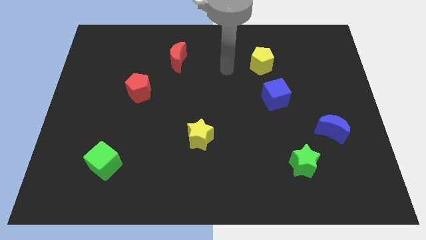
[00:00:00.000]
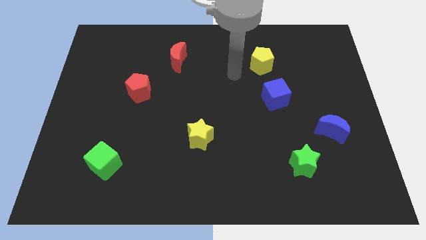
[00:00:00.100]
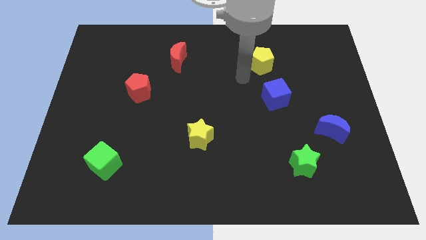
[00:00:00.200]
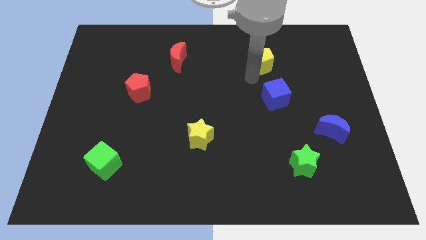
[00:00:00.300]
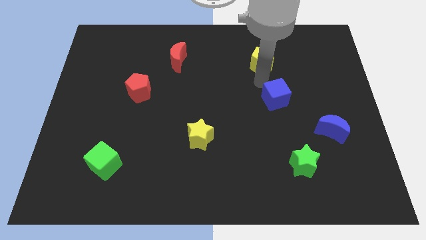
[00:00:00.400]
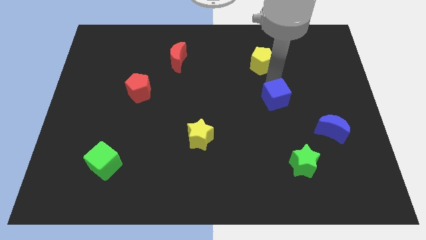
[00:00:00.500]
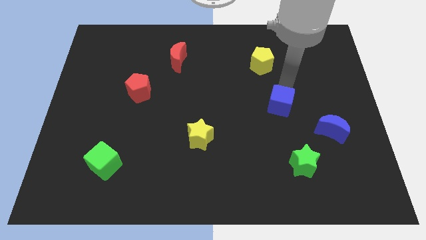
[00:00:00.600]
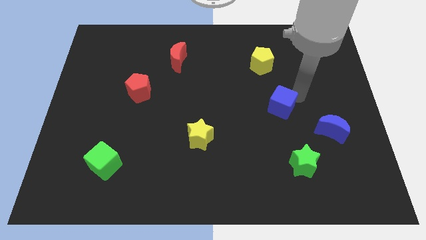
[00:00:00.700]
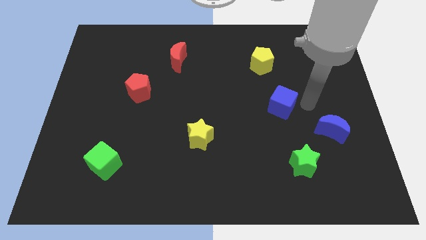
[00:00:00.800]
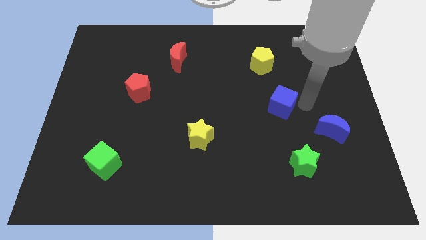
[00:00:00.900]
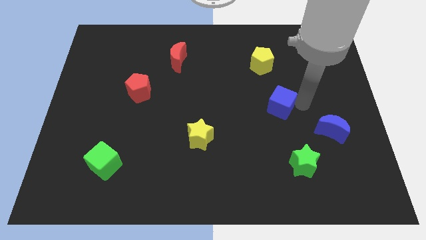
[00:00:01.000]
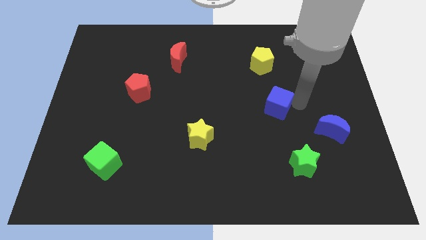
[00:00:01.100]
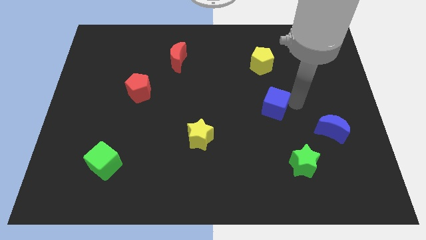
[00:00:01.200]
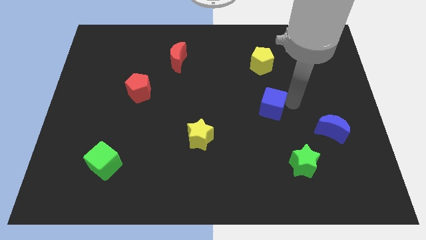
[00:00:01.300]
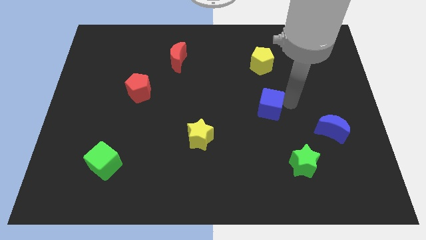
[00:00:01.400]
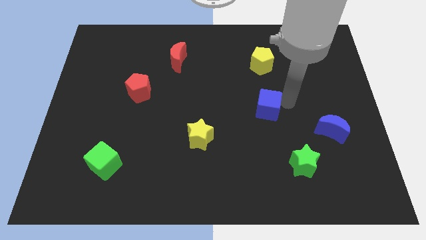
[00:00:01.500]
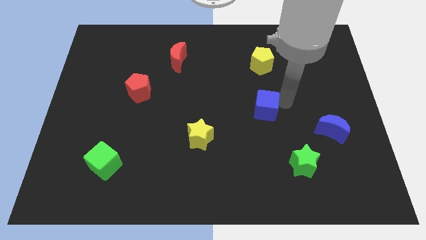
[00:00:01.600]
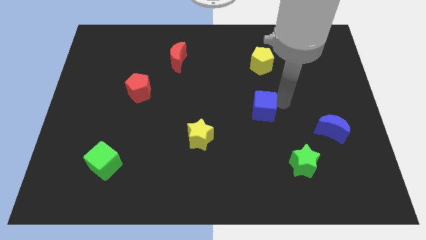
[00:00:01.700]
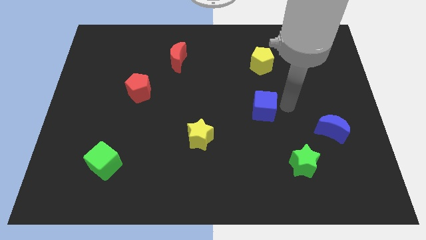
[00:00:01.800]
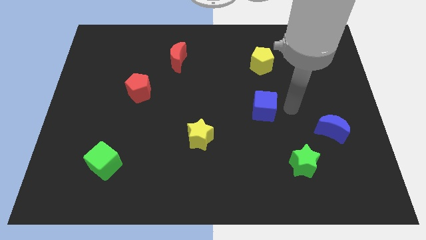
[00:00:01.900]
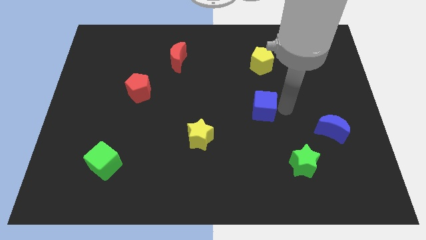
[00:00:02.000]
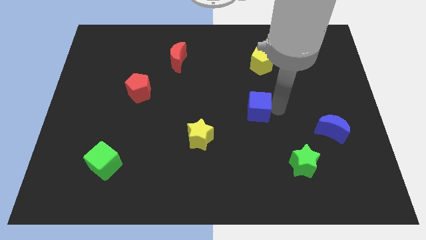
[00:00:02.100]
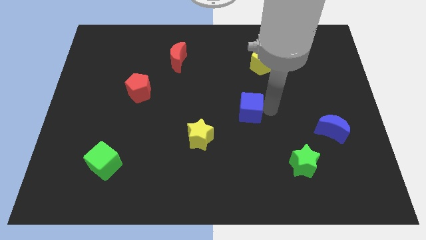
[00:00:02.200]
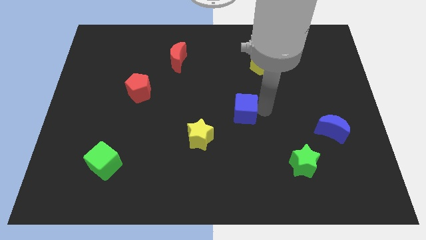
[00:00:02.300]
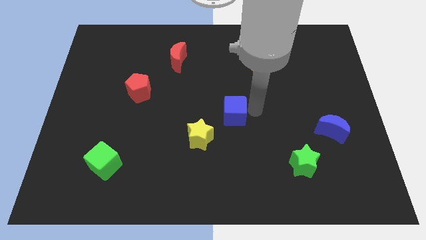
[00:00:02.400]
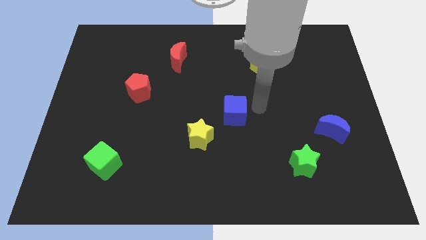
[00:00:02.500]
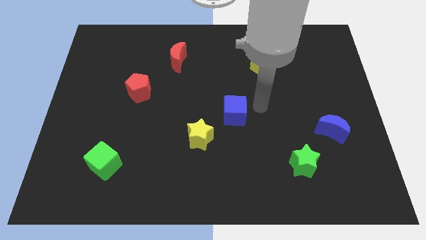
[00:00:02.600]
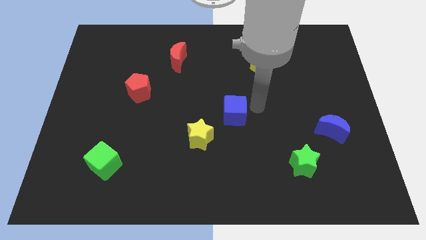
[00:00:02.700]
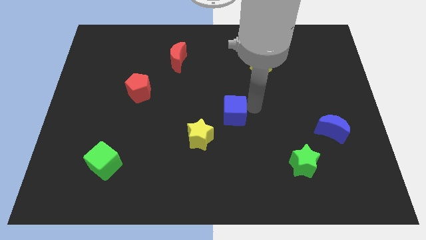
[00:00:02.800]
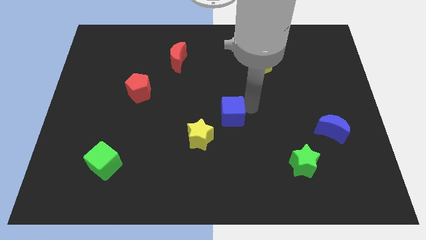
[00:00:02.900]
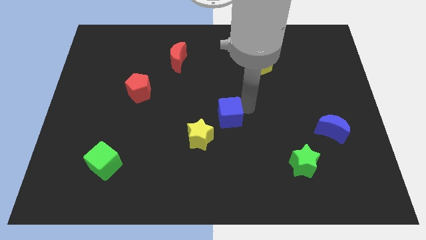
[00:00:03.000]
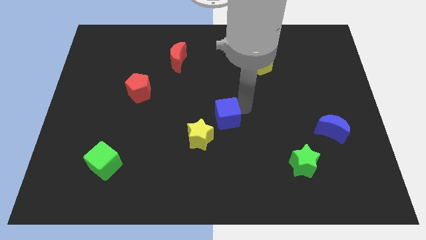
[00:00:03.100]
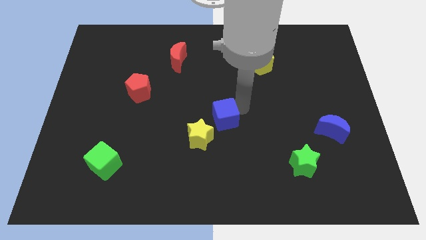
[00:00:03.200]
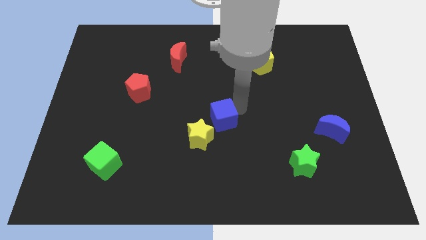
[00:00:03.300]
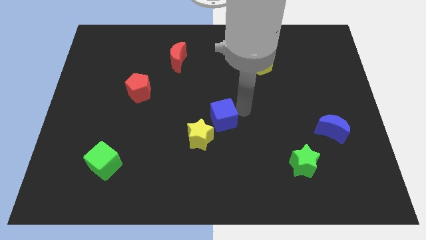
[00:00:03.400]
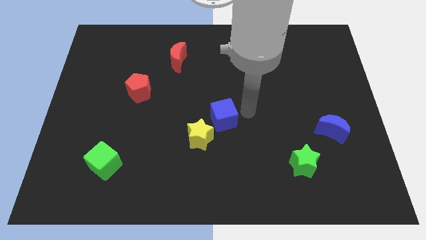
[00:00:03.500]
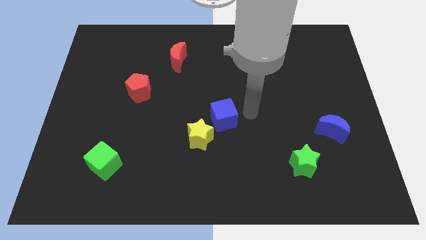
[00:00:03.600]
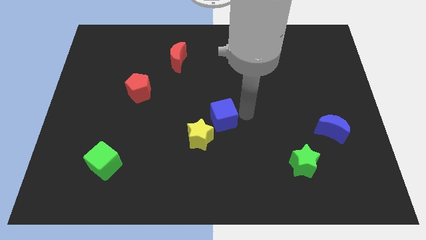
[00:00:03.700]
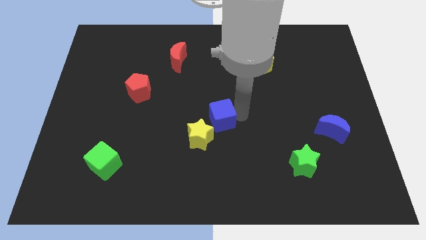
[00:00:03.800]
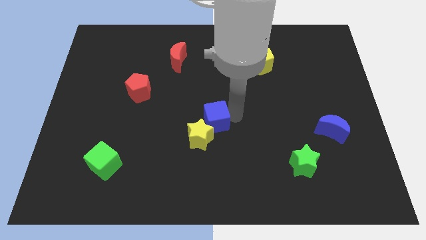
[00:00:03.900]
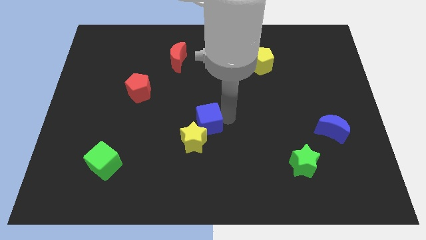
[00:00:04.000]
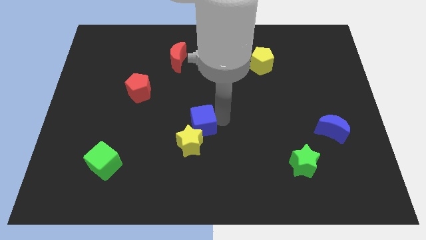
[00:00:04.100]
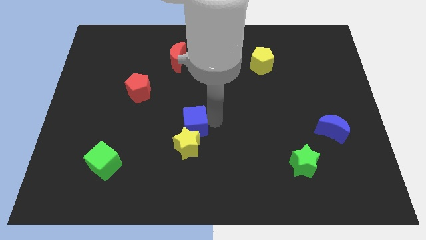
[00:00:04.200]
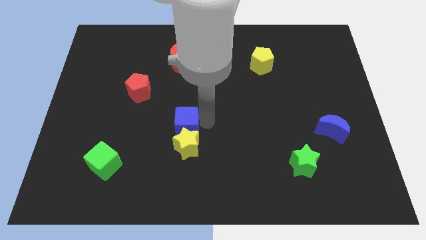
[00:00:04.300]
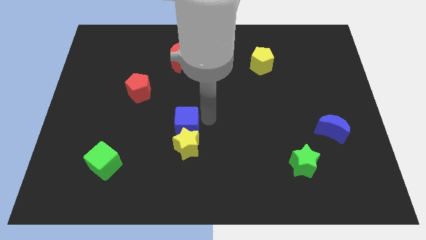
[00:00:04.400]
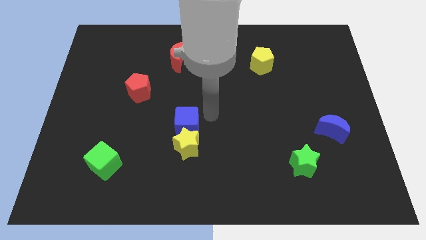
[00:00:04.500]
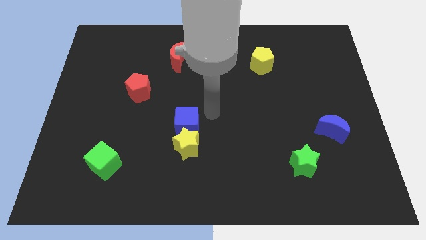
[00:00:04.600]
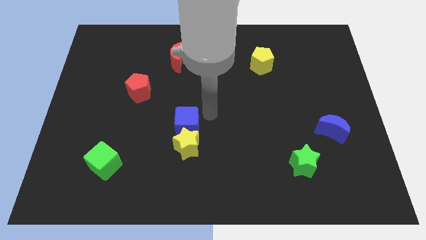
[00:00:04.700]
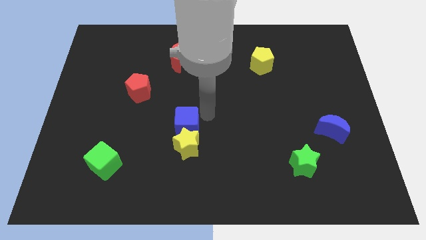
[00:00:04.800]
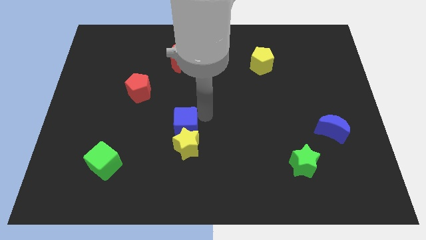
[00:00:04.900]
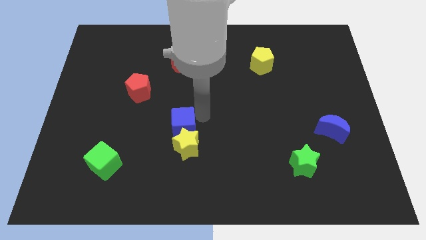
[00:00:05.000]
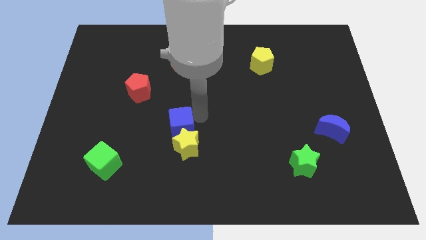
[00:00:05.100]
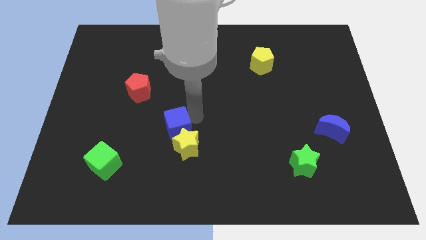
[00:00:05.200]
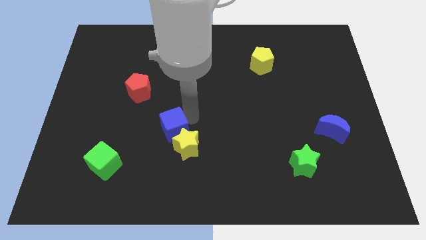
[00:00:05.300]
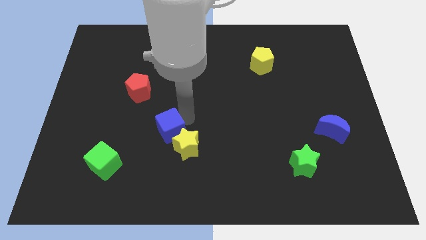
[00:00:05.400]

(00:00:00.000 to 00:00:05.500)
move the blue cube to the left of the yellow star

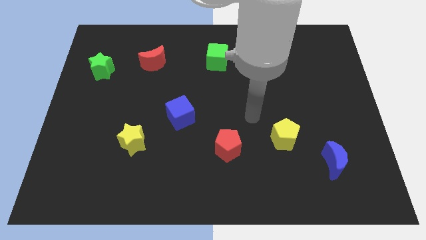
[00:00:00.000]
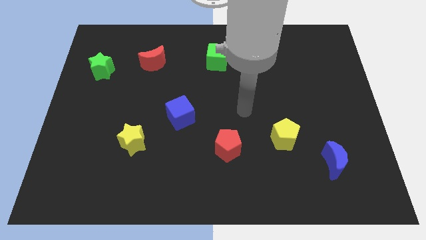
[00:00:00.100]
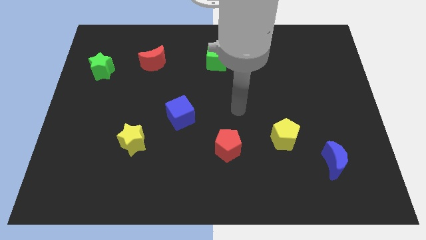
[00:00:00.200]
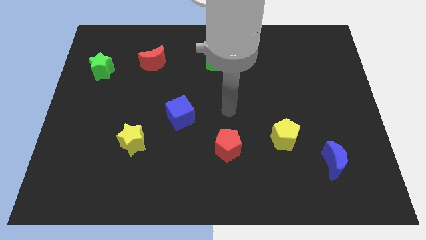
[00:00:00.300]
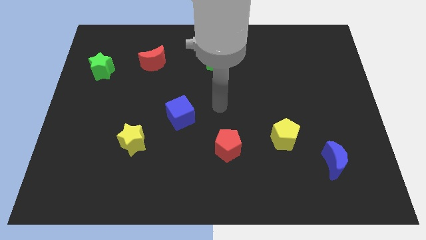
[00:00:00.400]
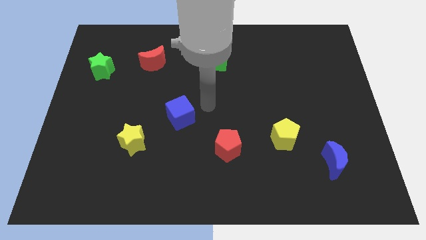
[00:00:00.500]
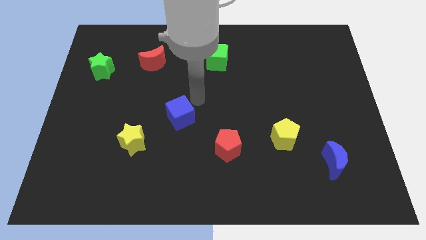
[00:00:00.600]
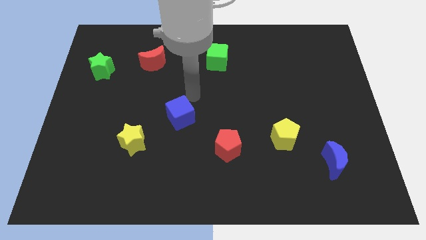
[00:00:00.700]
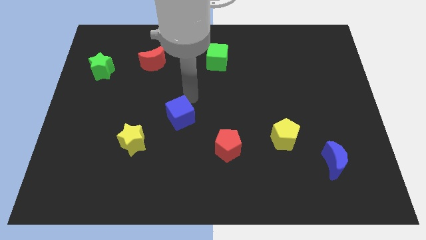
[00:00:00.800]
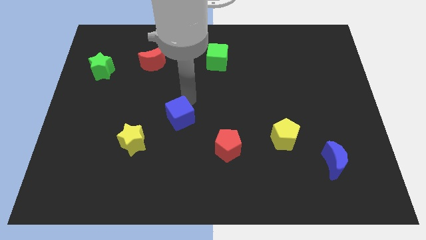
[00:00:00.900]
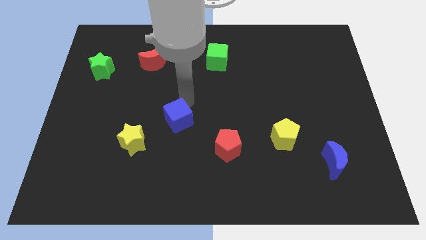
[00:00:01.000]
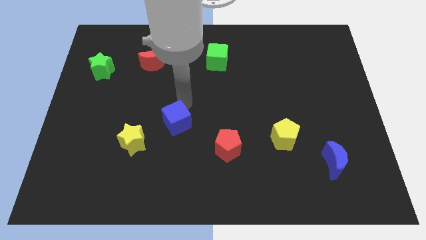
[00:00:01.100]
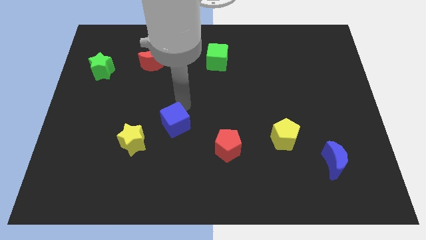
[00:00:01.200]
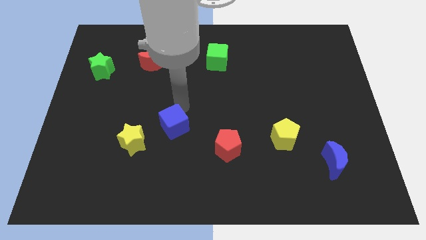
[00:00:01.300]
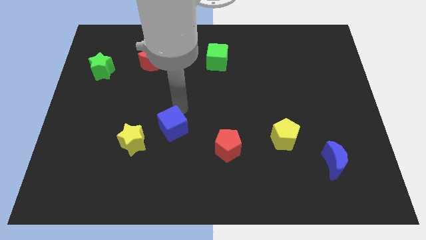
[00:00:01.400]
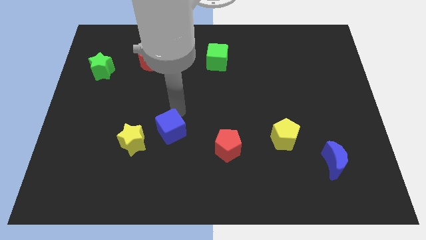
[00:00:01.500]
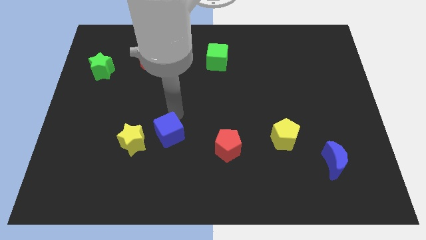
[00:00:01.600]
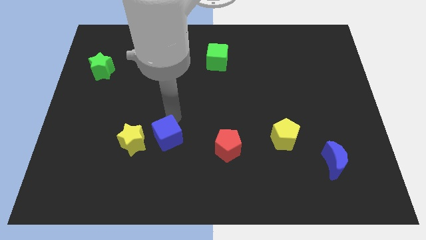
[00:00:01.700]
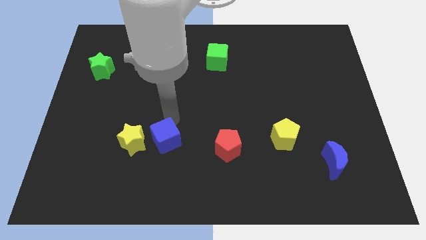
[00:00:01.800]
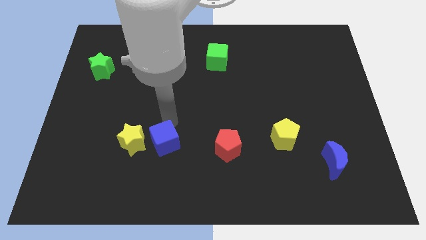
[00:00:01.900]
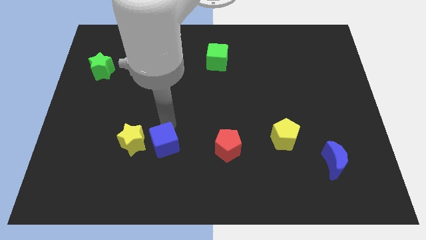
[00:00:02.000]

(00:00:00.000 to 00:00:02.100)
slide the blue cube to the bottom right side of the yellow star

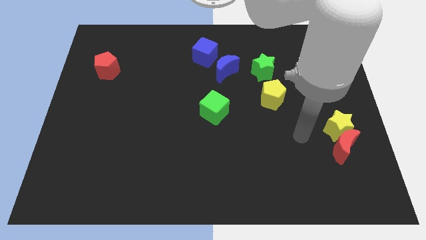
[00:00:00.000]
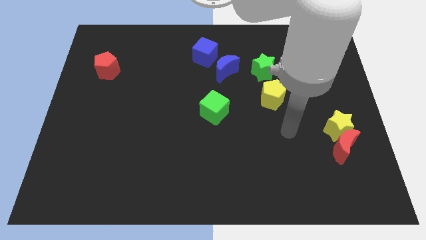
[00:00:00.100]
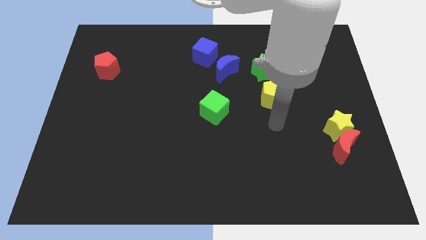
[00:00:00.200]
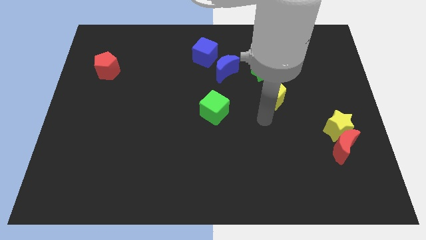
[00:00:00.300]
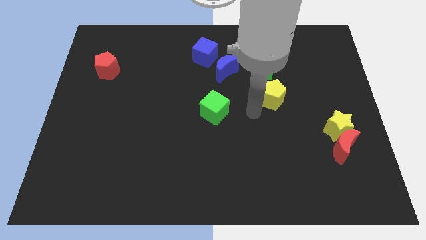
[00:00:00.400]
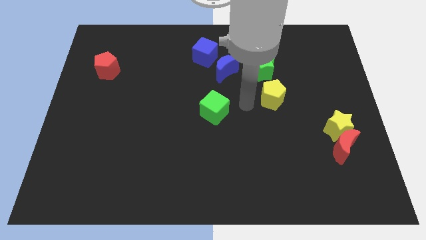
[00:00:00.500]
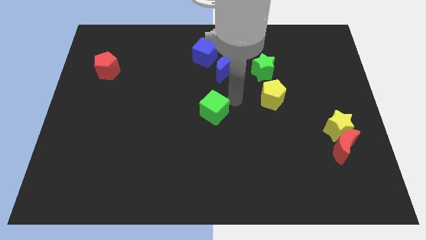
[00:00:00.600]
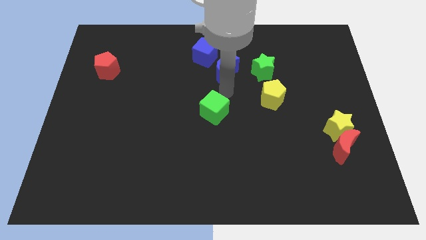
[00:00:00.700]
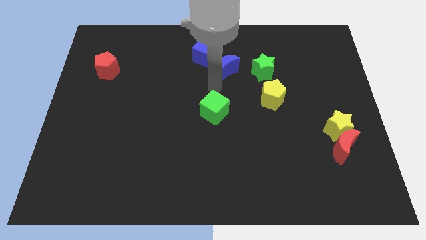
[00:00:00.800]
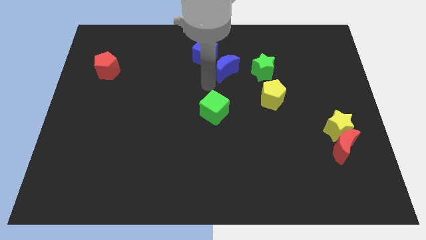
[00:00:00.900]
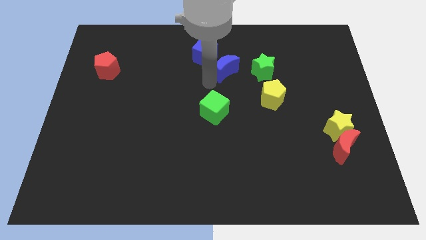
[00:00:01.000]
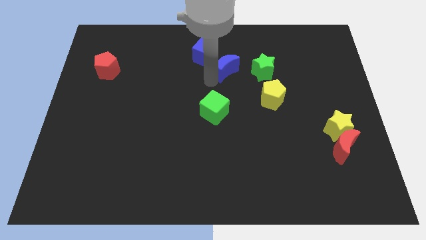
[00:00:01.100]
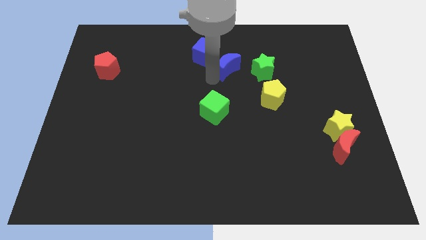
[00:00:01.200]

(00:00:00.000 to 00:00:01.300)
slide the blue moon right of the blue cube
